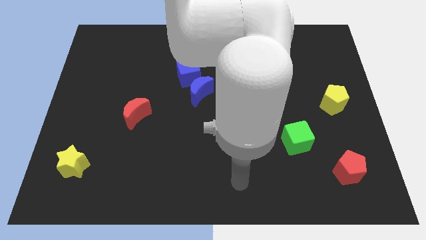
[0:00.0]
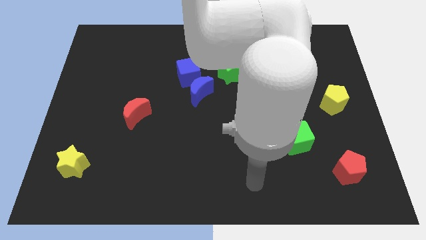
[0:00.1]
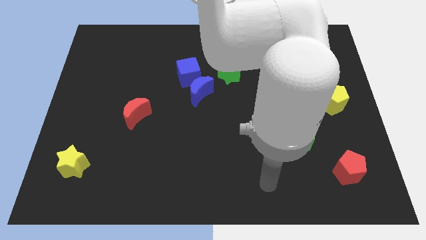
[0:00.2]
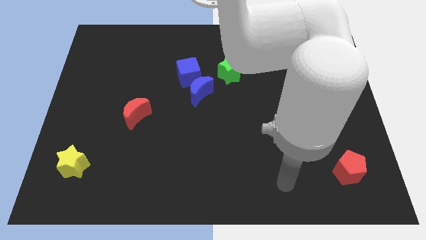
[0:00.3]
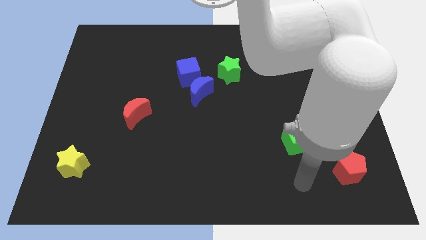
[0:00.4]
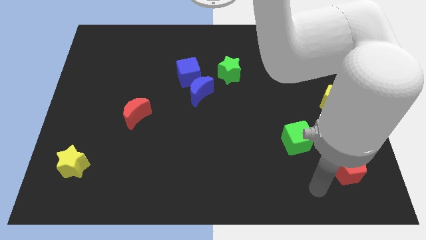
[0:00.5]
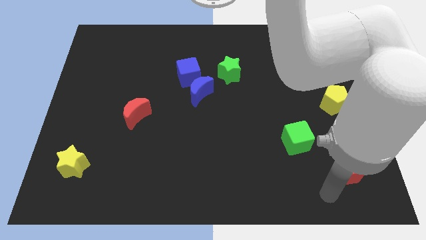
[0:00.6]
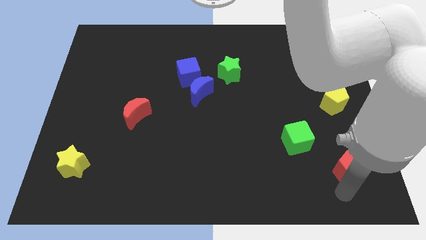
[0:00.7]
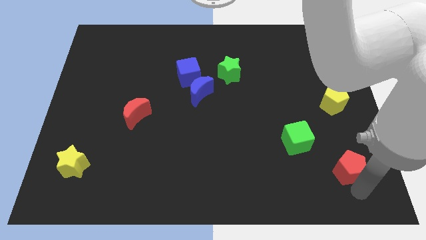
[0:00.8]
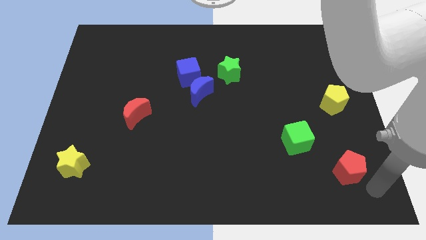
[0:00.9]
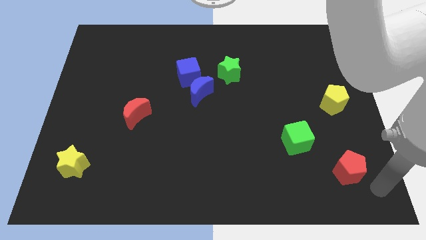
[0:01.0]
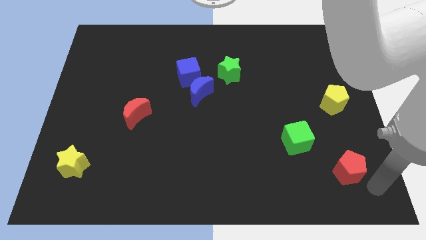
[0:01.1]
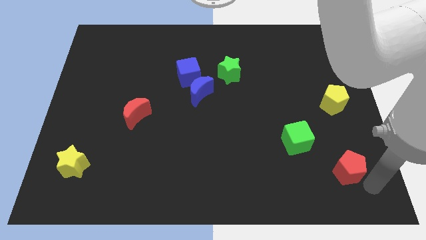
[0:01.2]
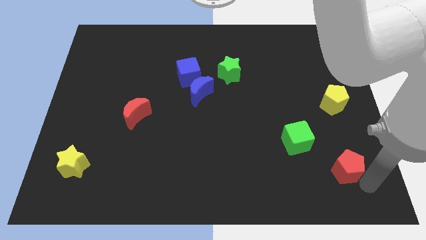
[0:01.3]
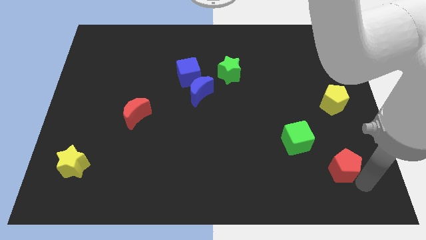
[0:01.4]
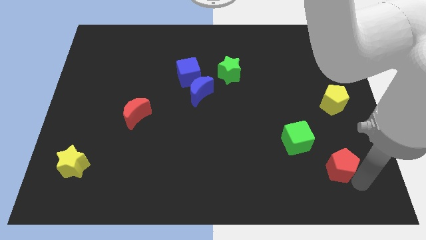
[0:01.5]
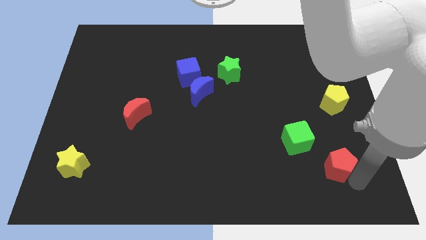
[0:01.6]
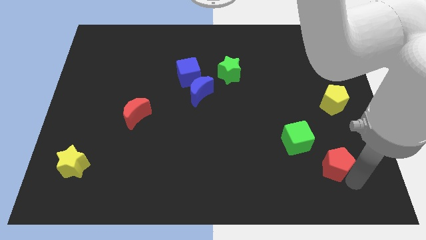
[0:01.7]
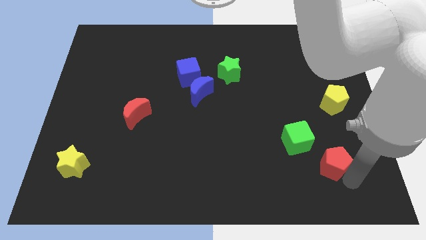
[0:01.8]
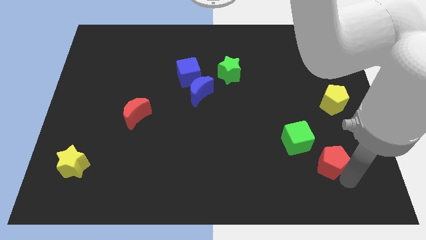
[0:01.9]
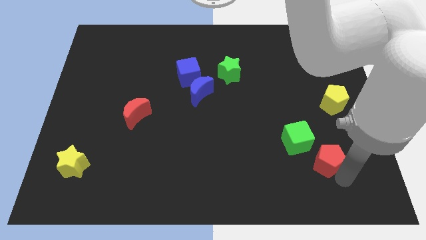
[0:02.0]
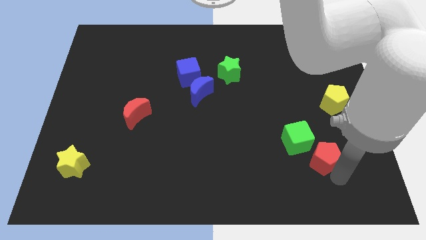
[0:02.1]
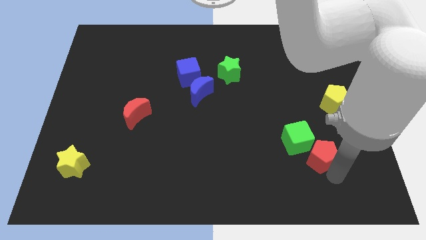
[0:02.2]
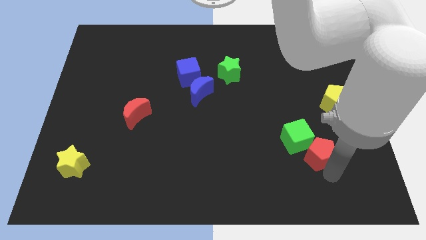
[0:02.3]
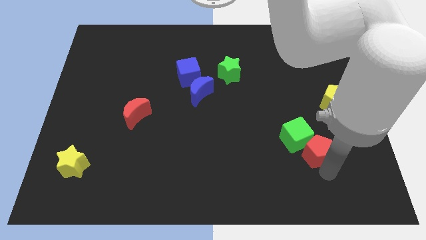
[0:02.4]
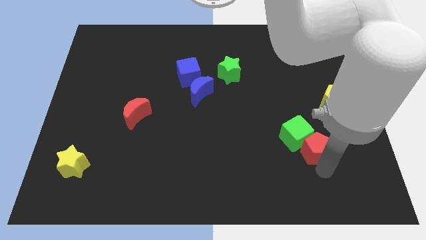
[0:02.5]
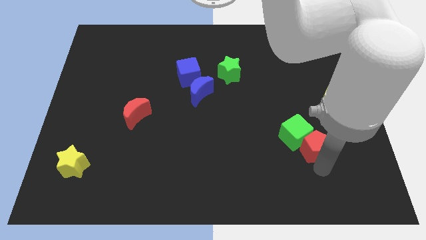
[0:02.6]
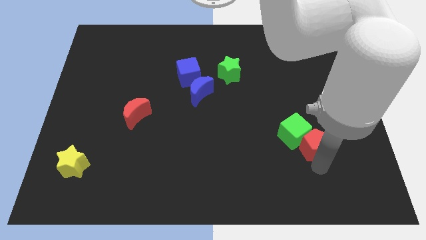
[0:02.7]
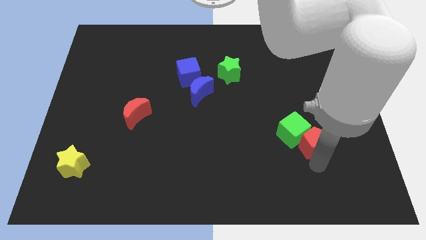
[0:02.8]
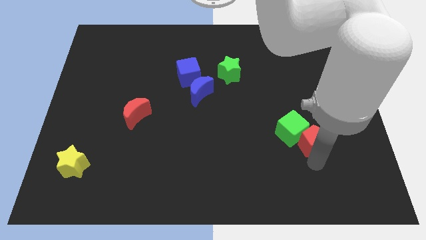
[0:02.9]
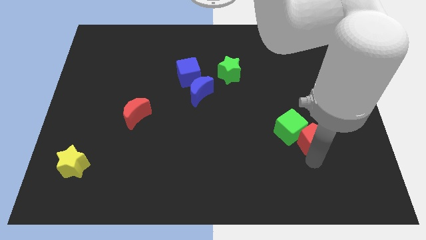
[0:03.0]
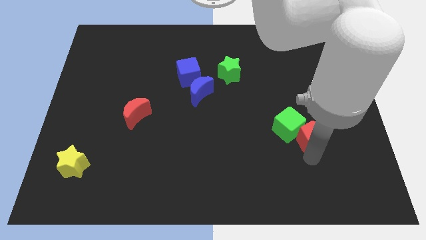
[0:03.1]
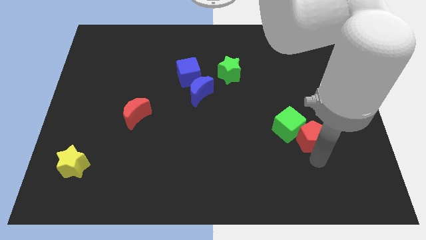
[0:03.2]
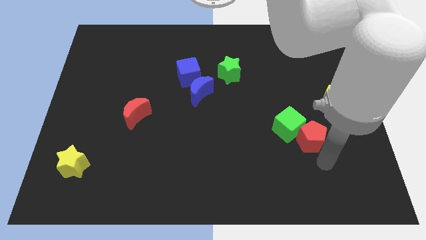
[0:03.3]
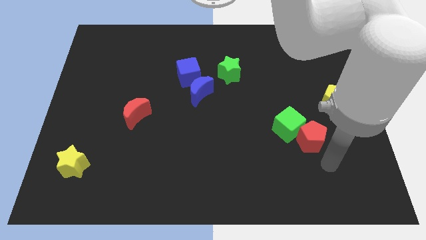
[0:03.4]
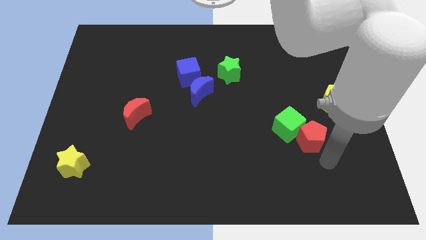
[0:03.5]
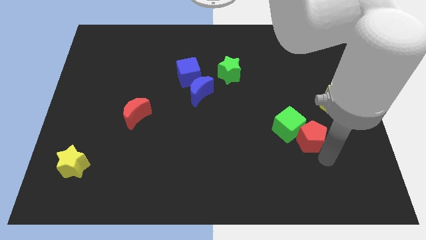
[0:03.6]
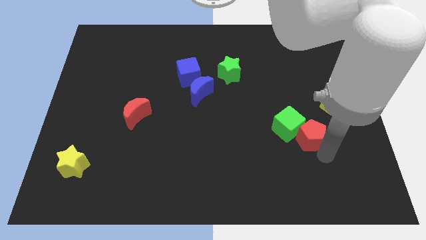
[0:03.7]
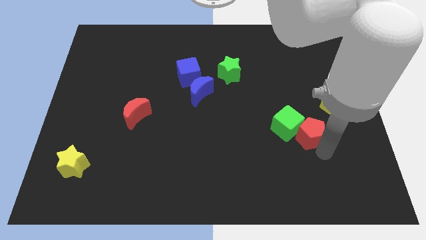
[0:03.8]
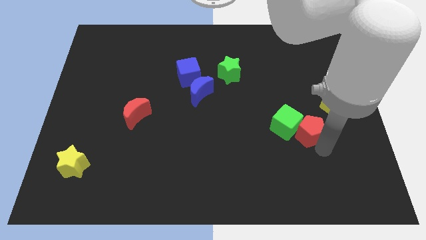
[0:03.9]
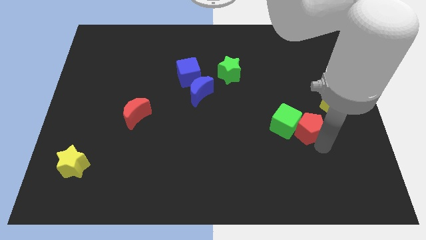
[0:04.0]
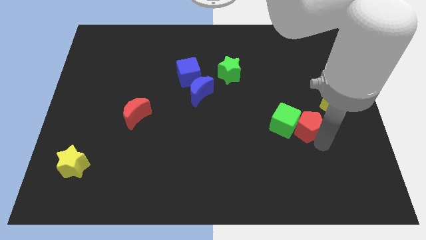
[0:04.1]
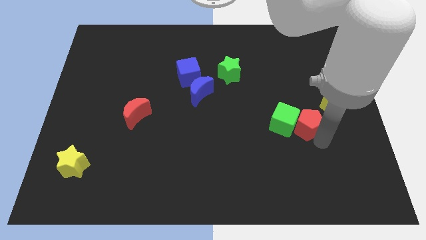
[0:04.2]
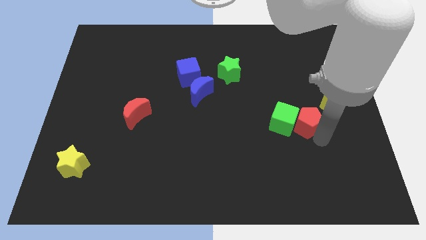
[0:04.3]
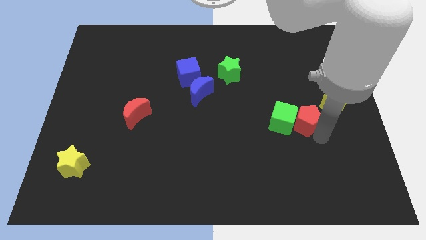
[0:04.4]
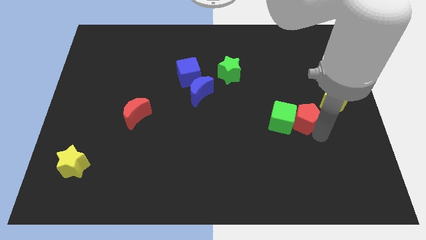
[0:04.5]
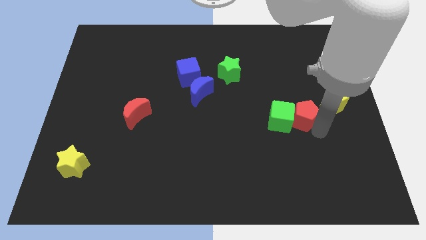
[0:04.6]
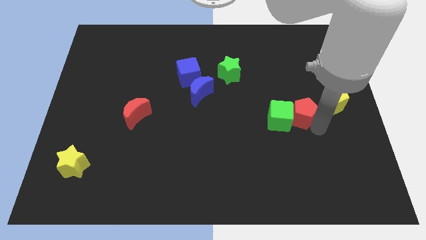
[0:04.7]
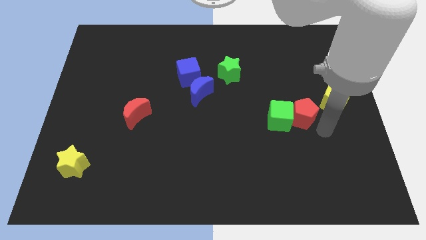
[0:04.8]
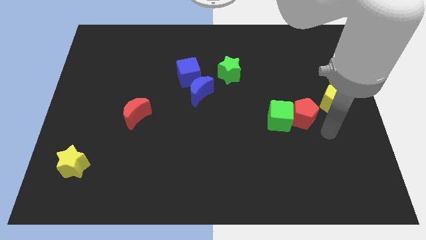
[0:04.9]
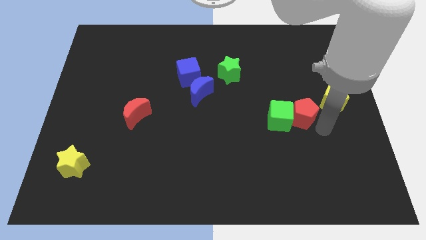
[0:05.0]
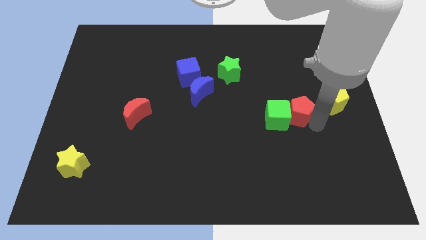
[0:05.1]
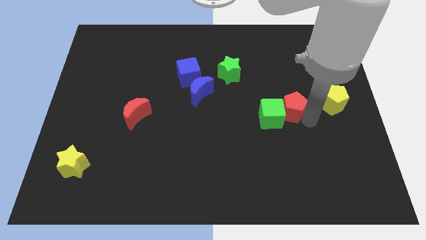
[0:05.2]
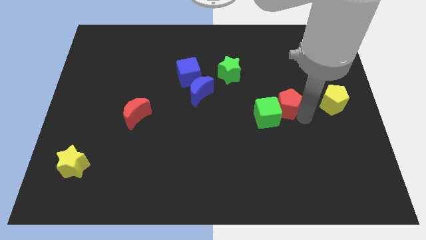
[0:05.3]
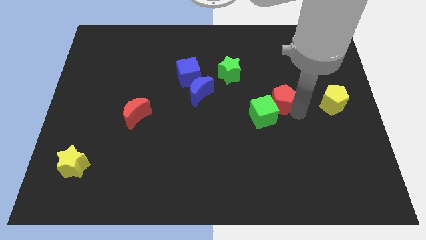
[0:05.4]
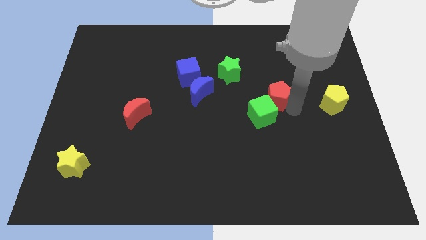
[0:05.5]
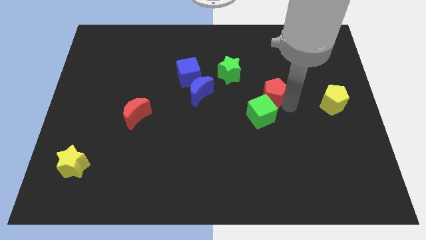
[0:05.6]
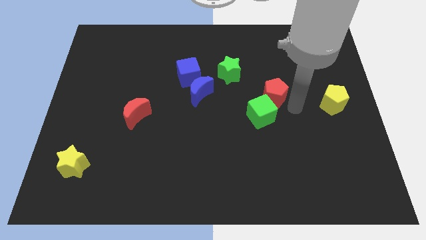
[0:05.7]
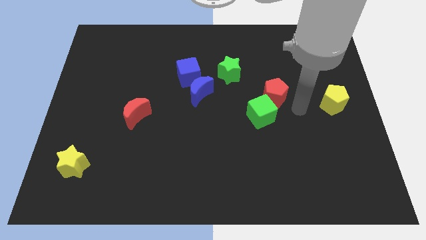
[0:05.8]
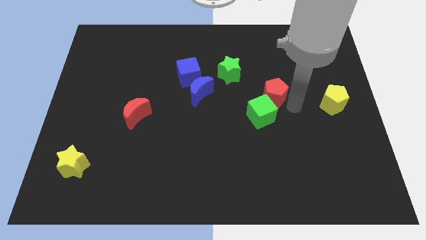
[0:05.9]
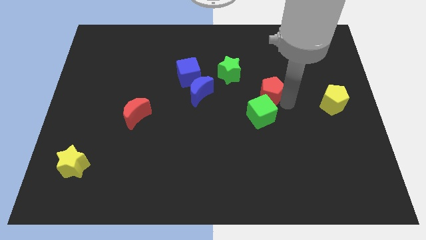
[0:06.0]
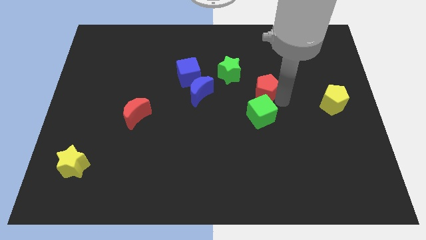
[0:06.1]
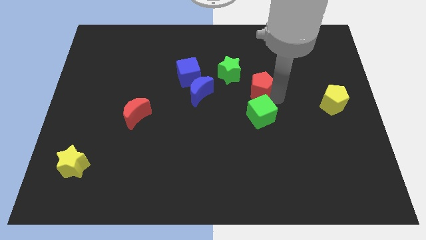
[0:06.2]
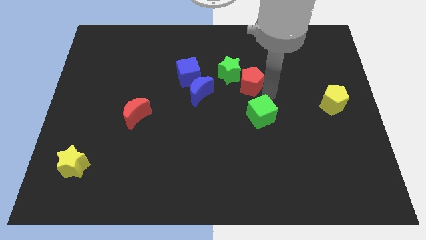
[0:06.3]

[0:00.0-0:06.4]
push the red pentagon towards the green star

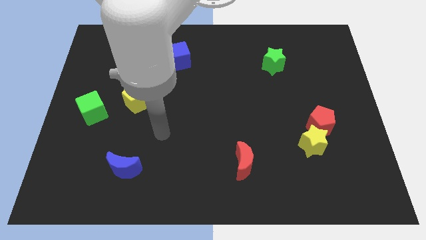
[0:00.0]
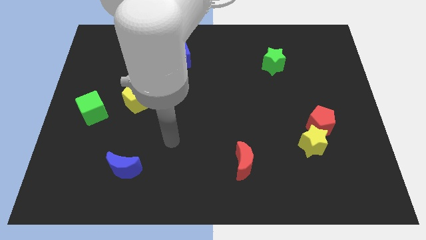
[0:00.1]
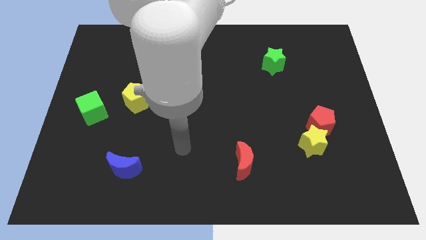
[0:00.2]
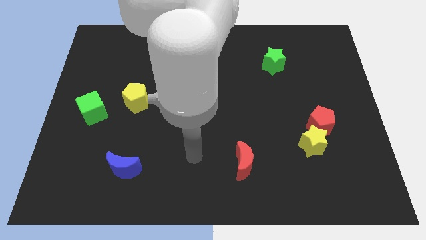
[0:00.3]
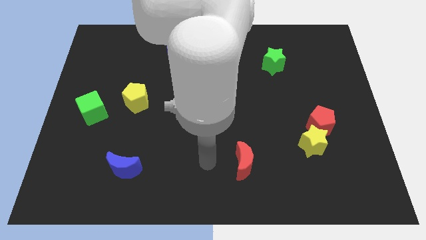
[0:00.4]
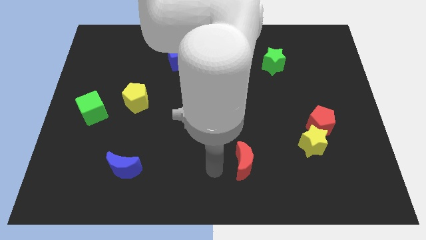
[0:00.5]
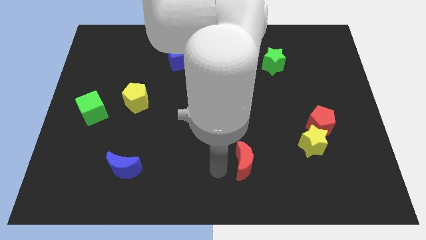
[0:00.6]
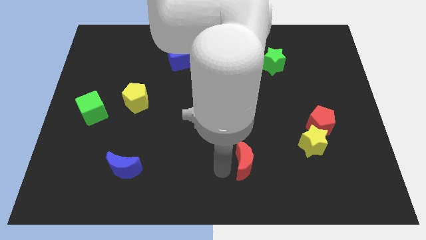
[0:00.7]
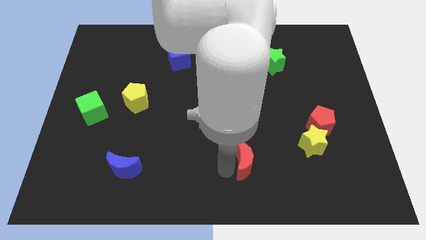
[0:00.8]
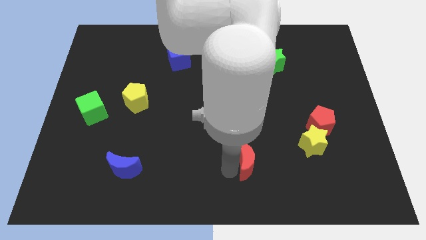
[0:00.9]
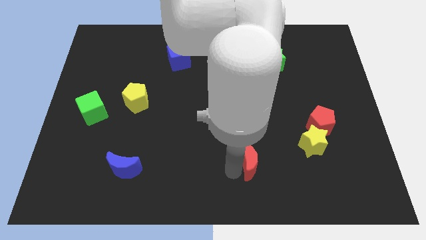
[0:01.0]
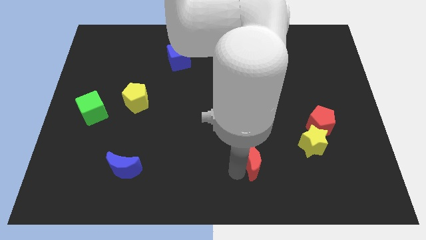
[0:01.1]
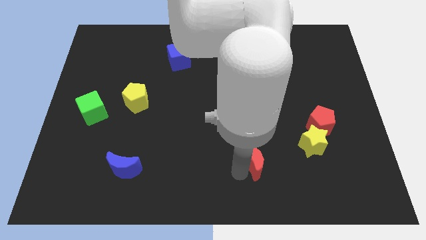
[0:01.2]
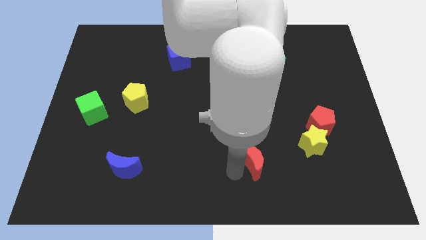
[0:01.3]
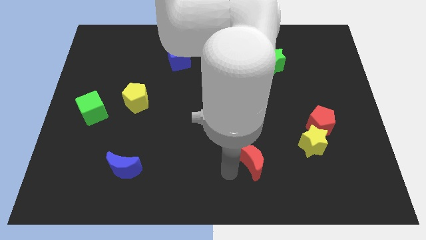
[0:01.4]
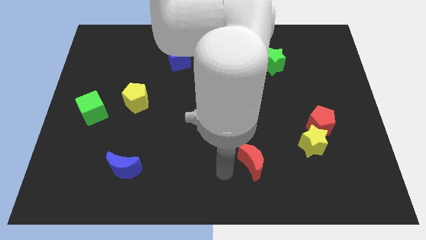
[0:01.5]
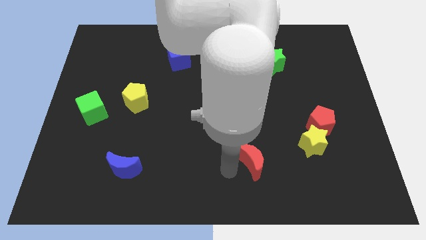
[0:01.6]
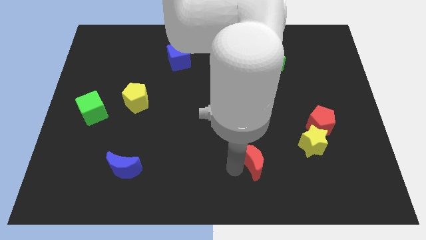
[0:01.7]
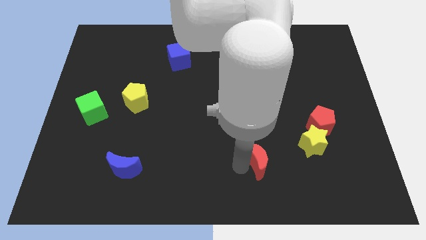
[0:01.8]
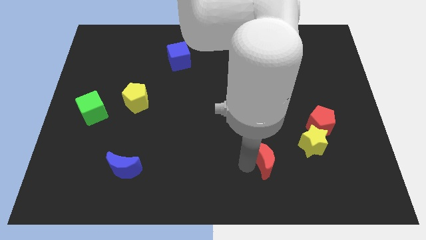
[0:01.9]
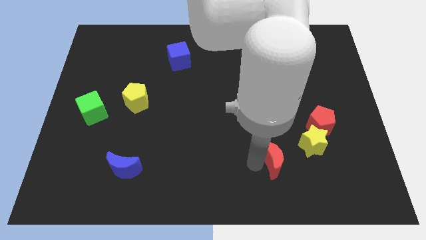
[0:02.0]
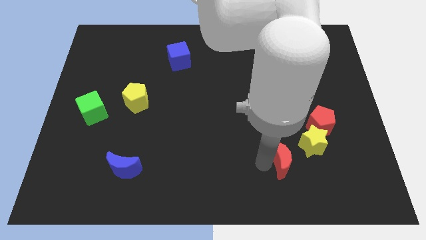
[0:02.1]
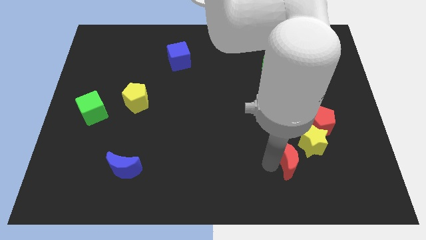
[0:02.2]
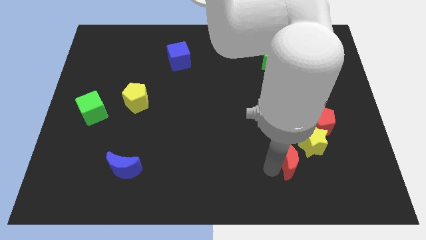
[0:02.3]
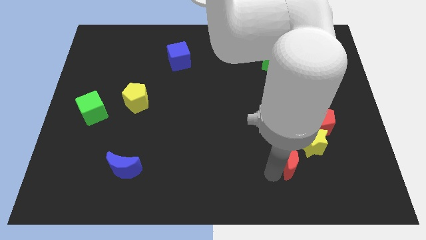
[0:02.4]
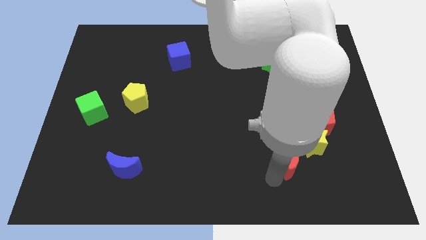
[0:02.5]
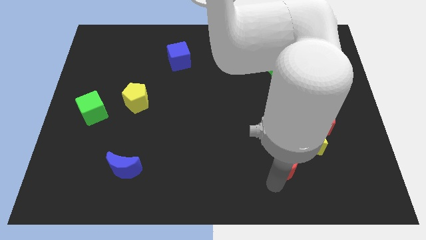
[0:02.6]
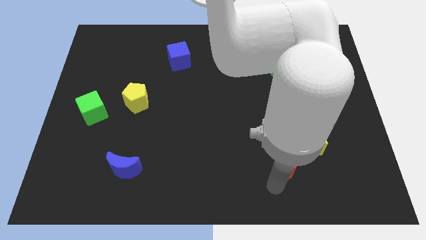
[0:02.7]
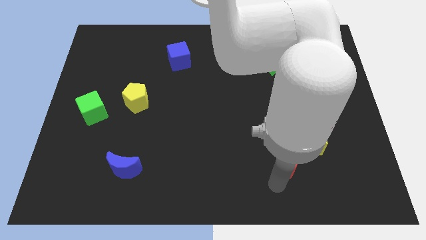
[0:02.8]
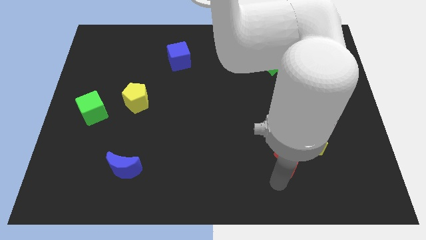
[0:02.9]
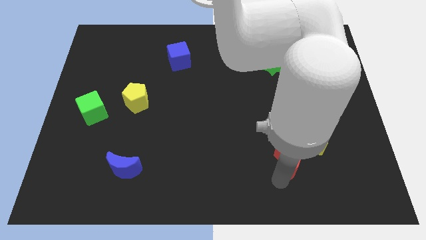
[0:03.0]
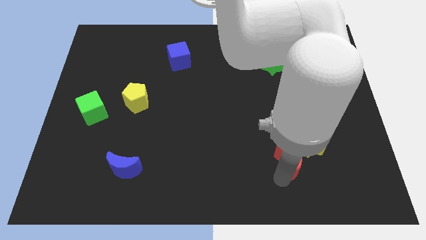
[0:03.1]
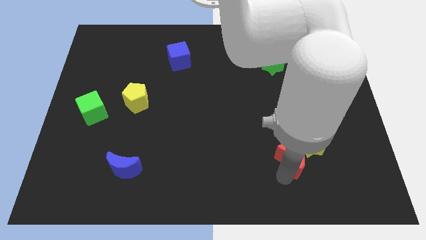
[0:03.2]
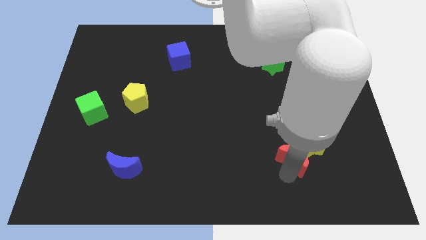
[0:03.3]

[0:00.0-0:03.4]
push the red moon next to the yellow star
